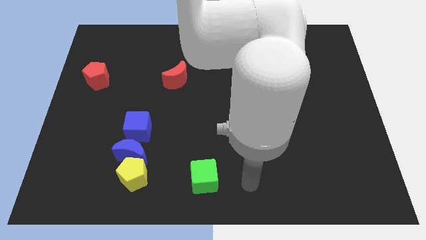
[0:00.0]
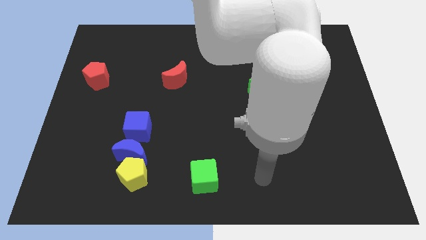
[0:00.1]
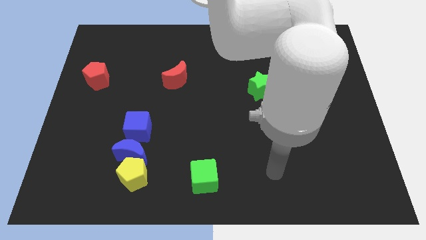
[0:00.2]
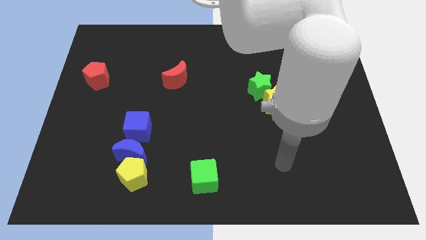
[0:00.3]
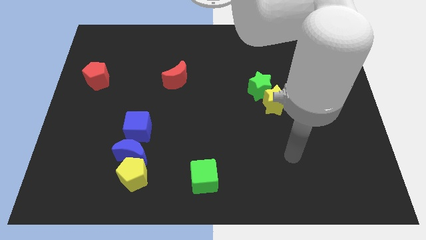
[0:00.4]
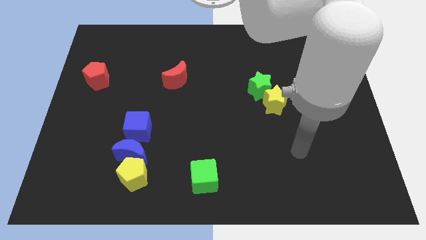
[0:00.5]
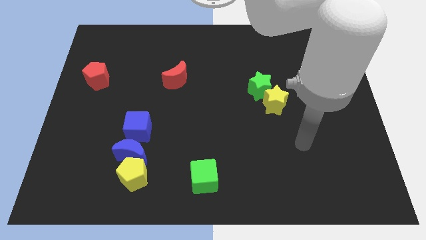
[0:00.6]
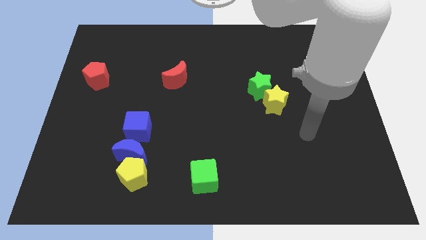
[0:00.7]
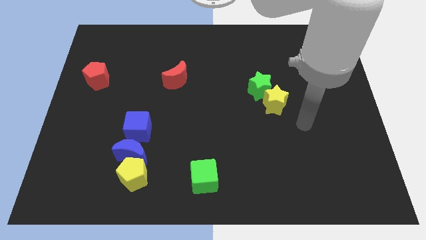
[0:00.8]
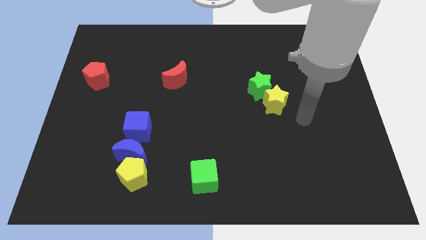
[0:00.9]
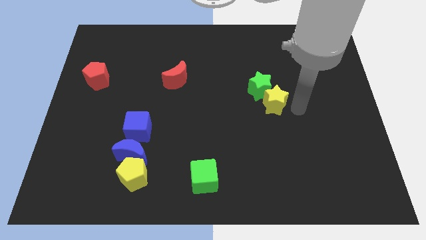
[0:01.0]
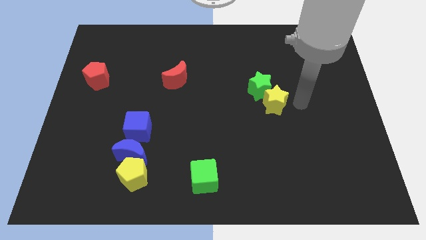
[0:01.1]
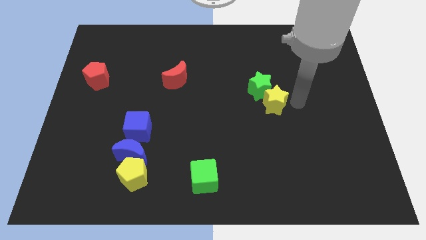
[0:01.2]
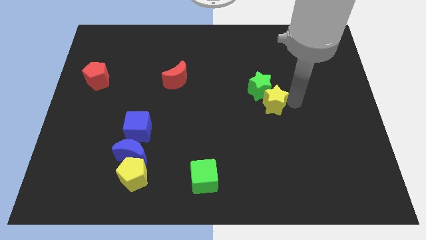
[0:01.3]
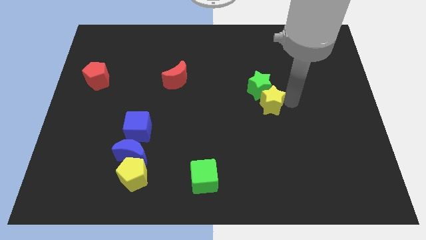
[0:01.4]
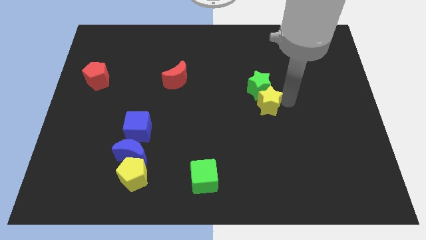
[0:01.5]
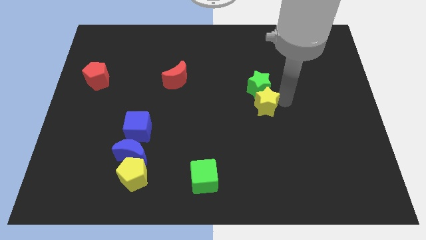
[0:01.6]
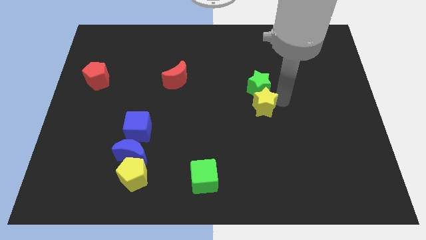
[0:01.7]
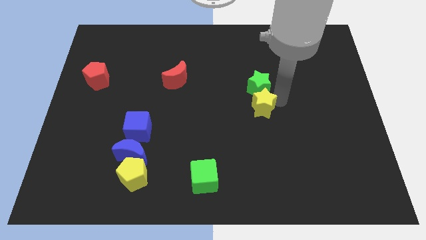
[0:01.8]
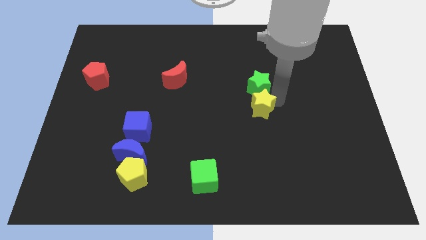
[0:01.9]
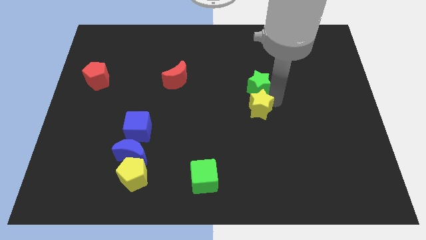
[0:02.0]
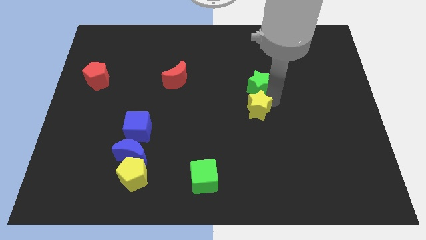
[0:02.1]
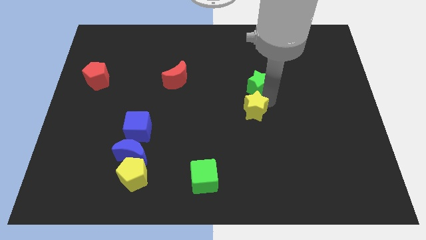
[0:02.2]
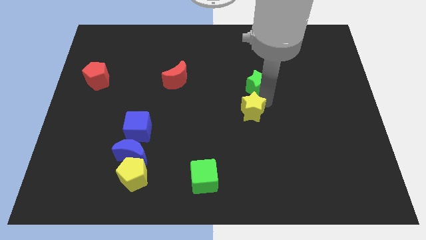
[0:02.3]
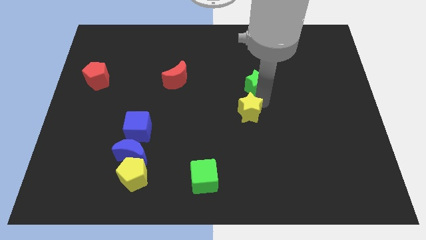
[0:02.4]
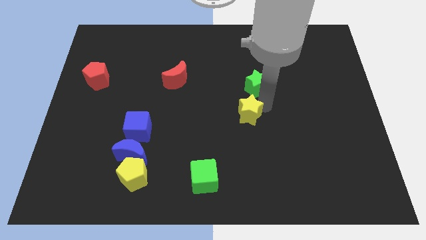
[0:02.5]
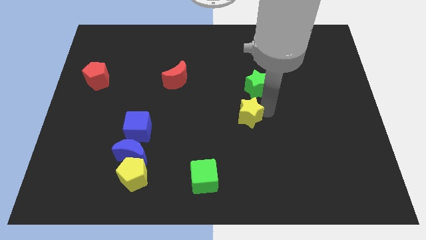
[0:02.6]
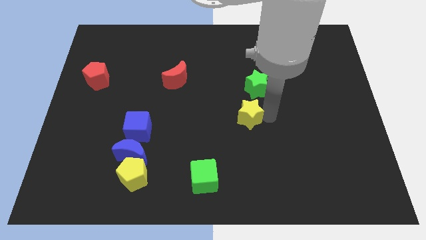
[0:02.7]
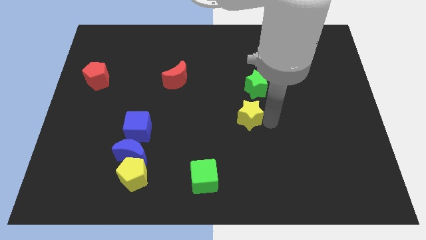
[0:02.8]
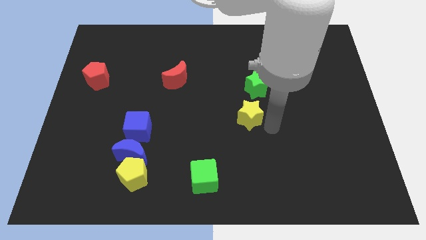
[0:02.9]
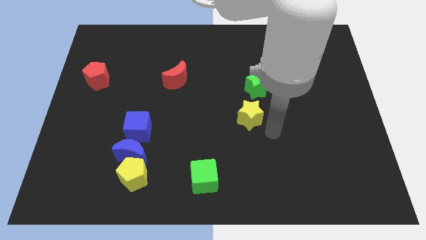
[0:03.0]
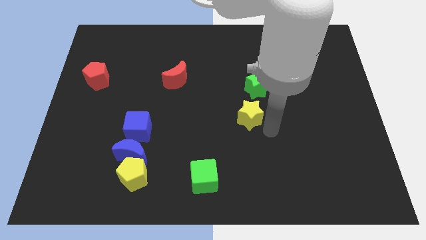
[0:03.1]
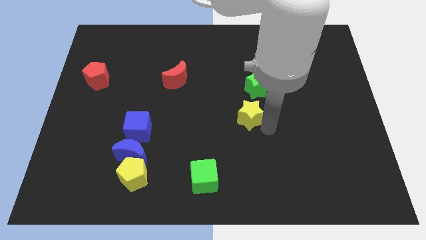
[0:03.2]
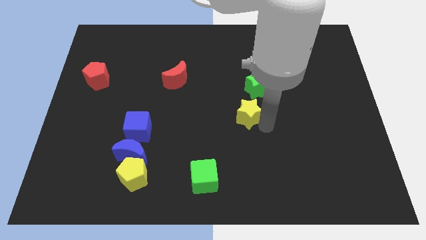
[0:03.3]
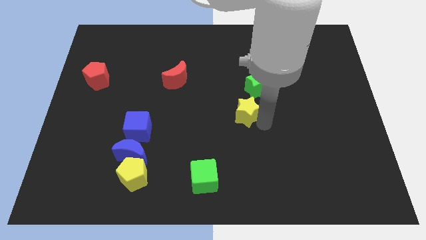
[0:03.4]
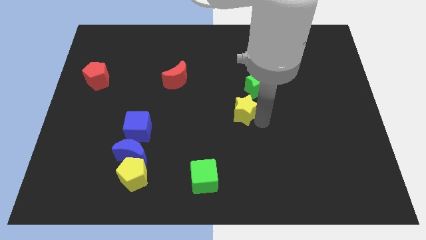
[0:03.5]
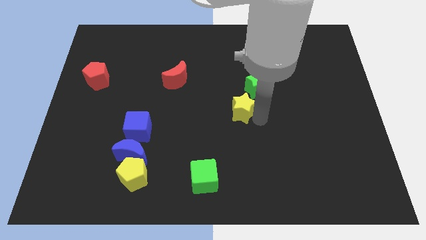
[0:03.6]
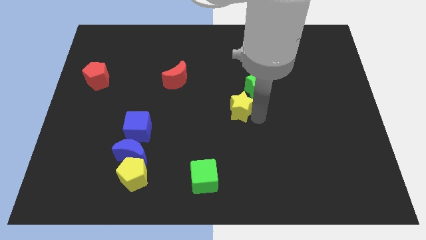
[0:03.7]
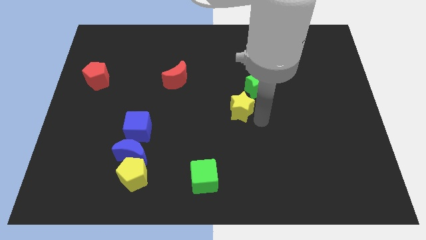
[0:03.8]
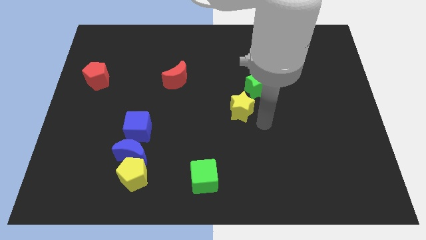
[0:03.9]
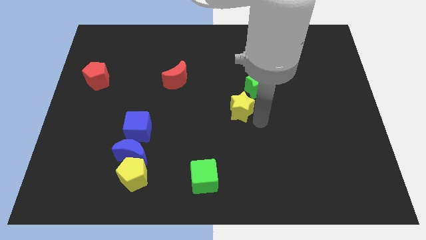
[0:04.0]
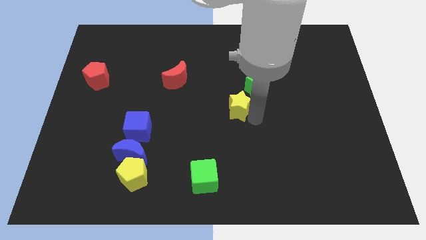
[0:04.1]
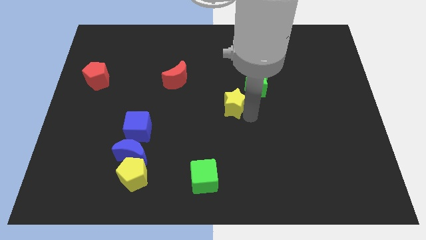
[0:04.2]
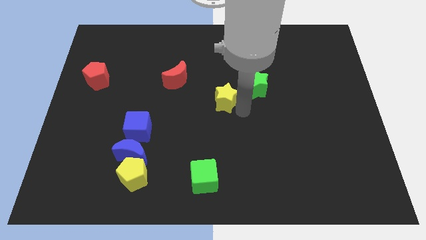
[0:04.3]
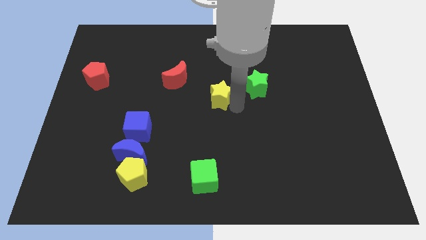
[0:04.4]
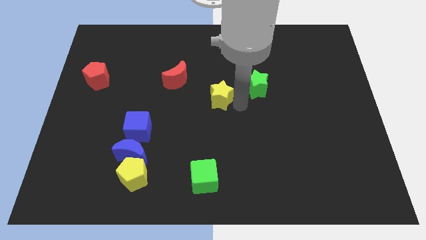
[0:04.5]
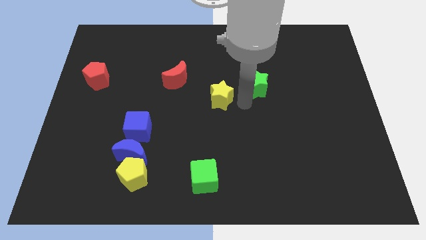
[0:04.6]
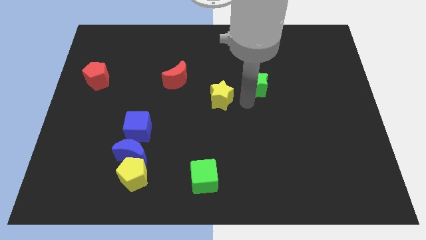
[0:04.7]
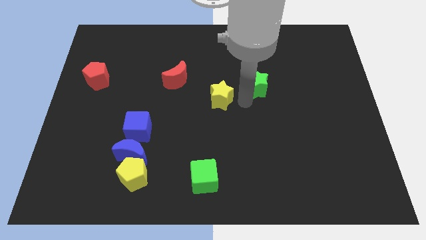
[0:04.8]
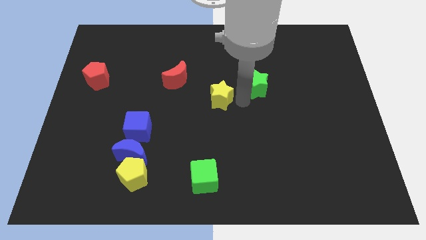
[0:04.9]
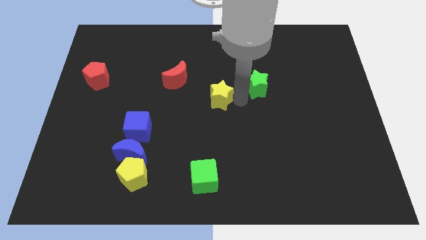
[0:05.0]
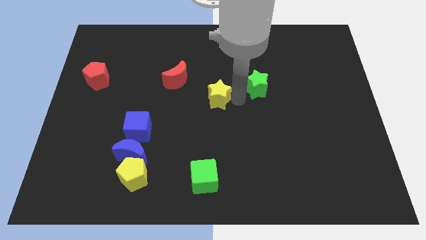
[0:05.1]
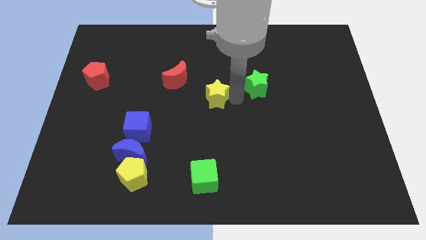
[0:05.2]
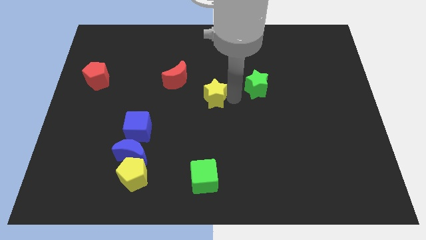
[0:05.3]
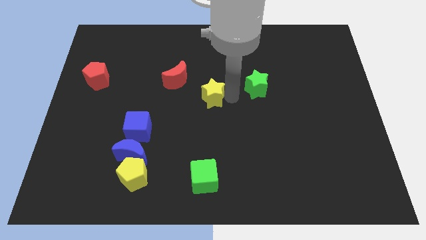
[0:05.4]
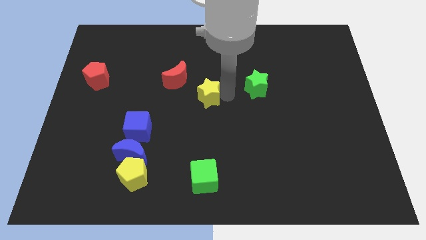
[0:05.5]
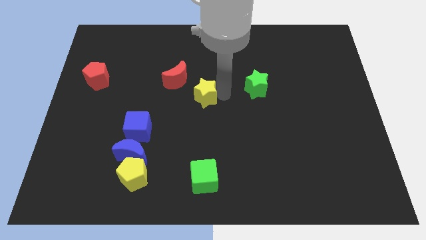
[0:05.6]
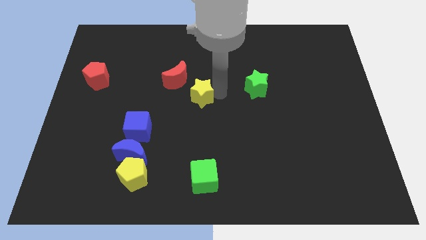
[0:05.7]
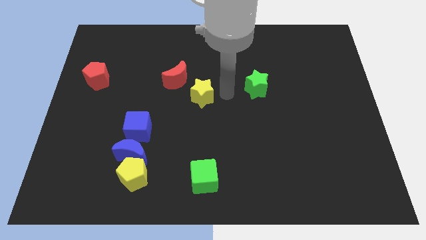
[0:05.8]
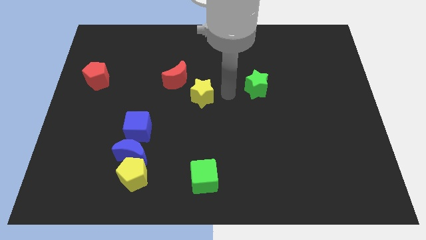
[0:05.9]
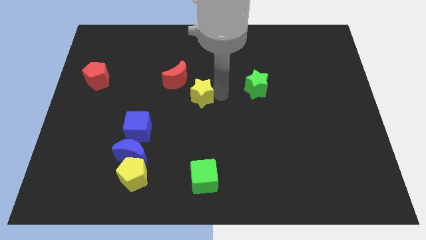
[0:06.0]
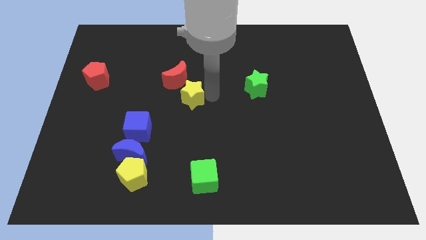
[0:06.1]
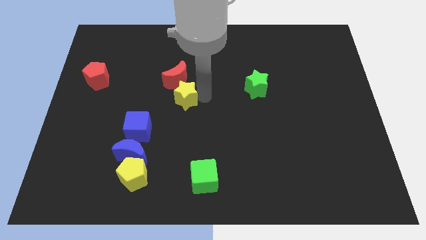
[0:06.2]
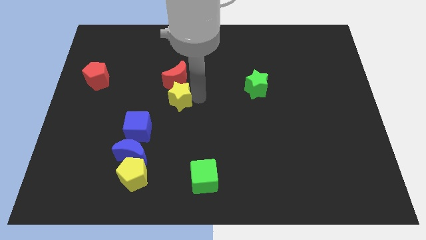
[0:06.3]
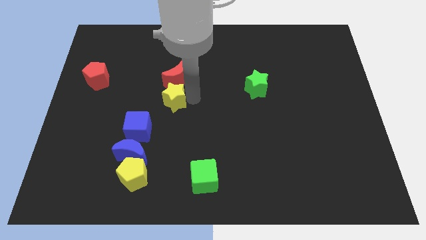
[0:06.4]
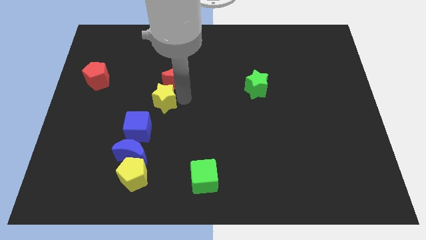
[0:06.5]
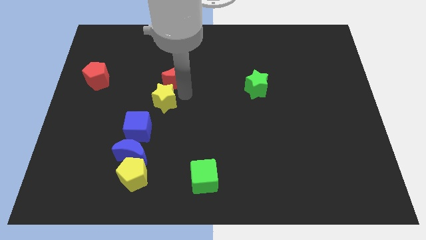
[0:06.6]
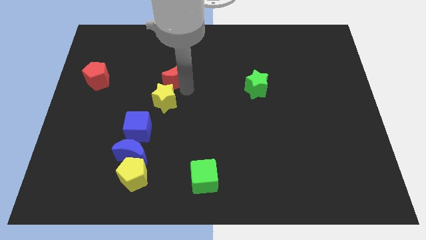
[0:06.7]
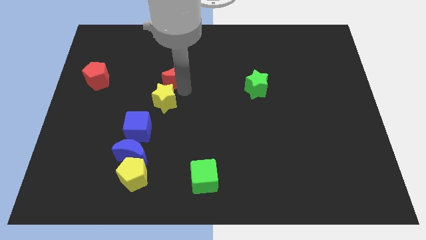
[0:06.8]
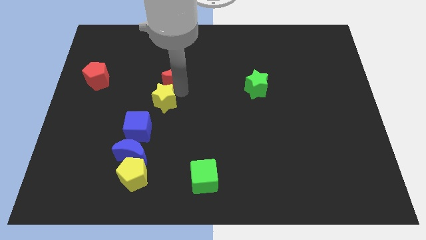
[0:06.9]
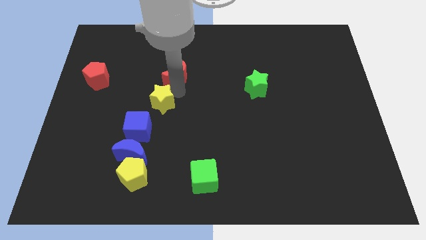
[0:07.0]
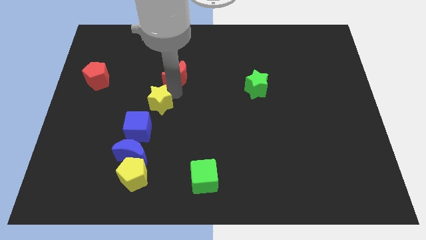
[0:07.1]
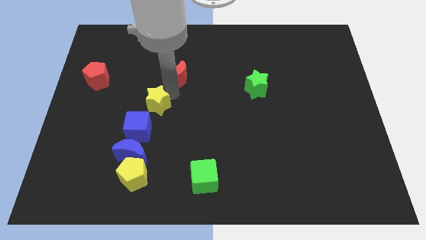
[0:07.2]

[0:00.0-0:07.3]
push the yellow star above the blue moon

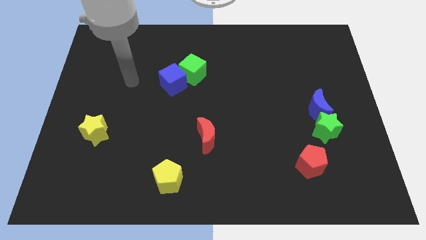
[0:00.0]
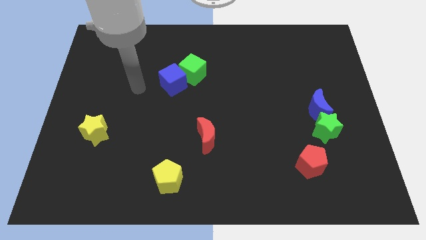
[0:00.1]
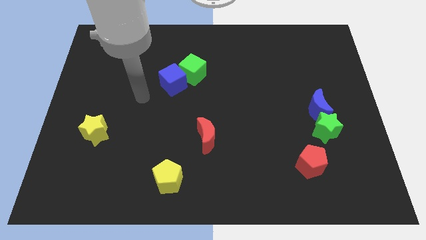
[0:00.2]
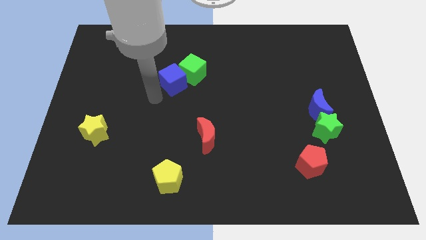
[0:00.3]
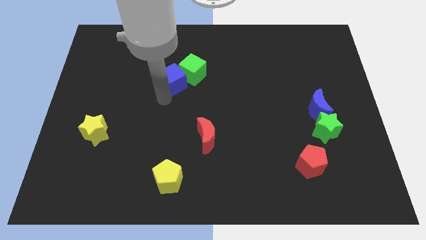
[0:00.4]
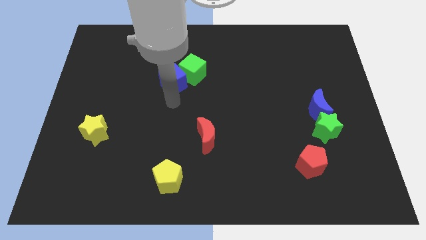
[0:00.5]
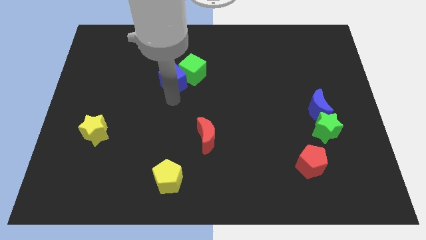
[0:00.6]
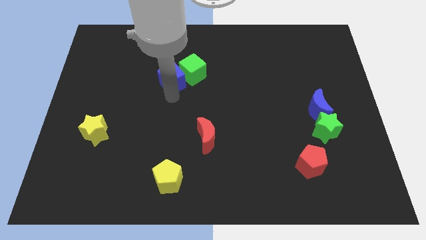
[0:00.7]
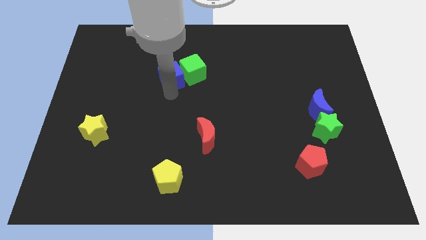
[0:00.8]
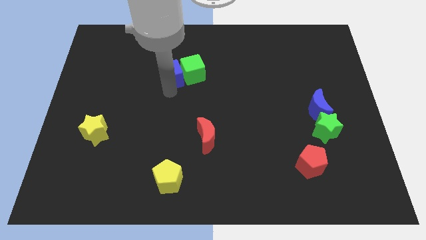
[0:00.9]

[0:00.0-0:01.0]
move the blue cube to the top left side of the green cube
